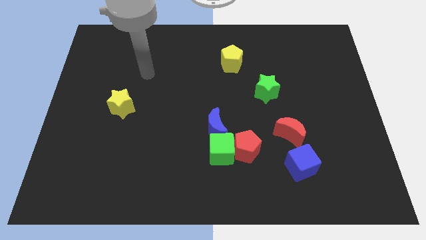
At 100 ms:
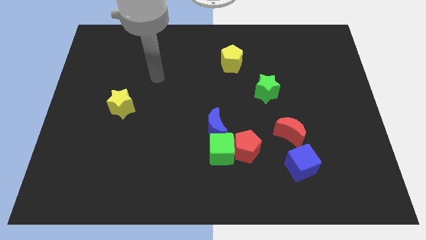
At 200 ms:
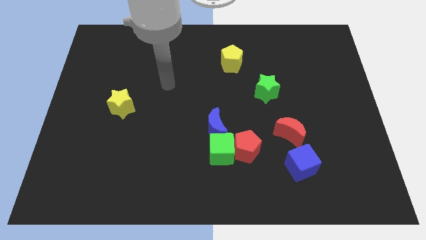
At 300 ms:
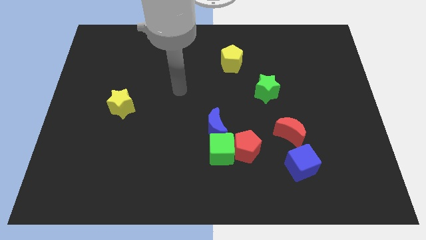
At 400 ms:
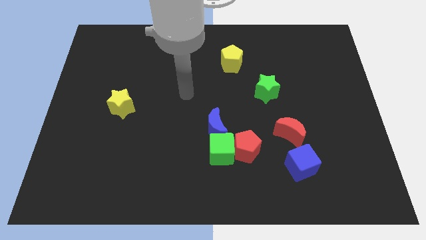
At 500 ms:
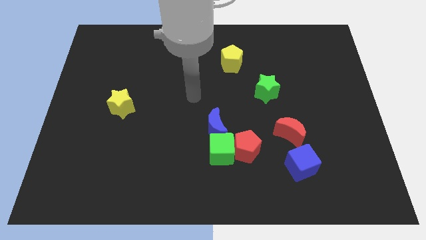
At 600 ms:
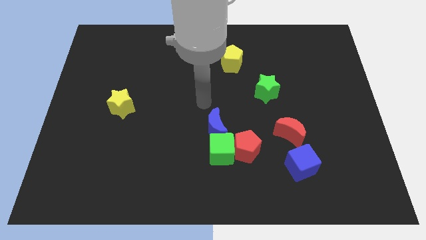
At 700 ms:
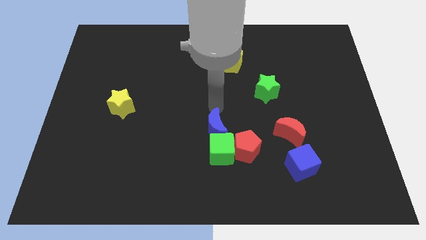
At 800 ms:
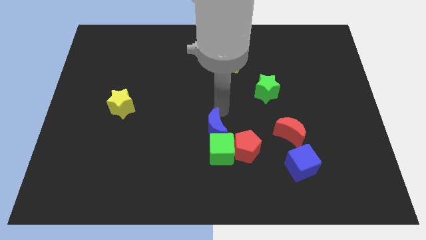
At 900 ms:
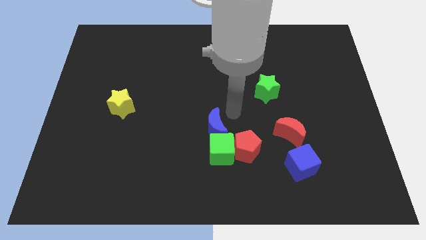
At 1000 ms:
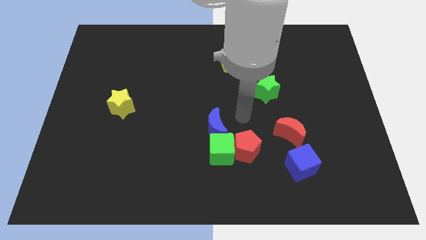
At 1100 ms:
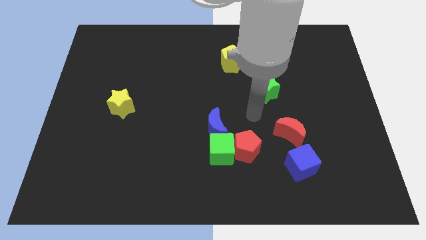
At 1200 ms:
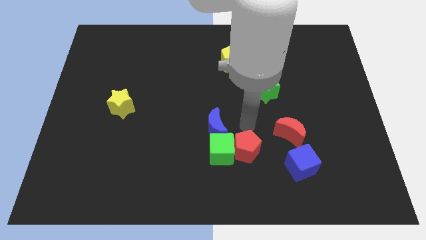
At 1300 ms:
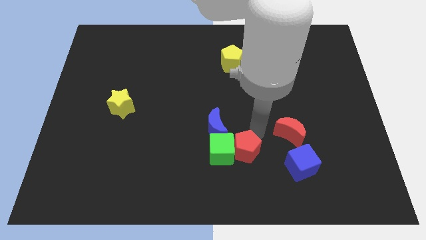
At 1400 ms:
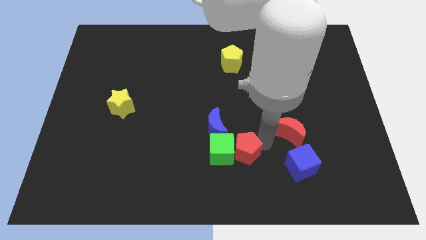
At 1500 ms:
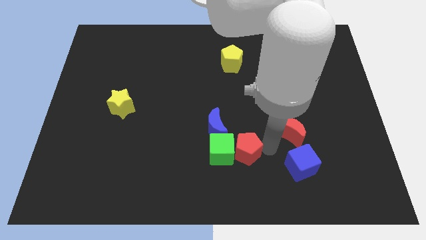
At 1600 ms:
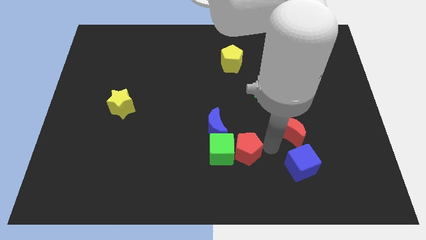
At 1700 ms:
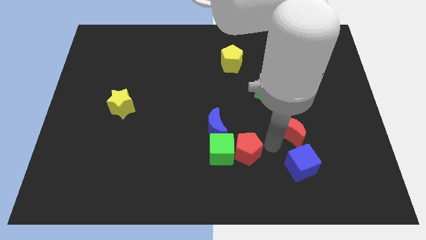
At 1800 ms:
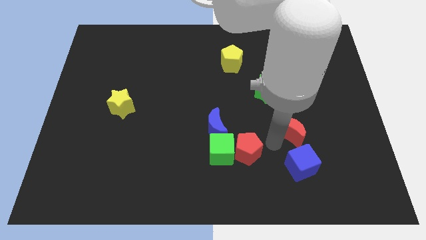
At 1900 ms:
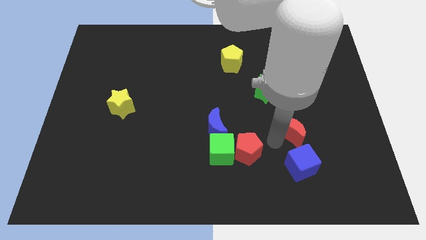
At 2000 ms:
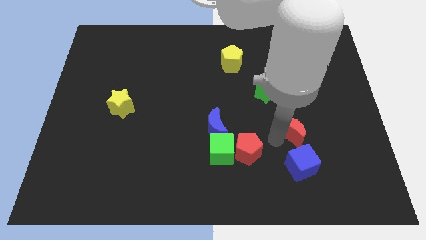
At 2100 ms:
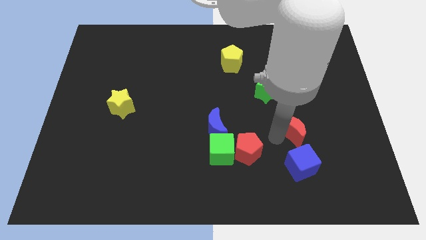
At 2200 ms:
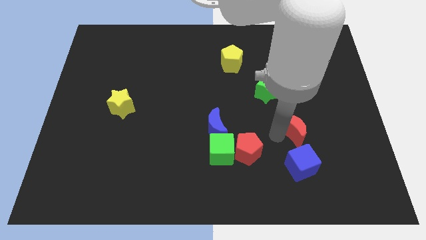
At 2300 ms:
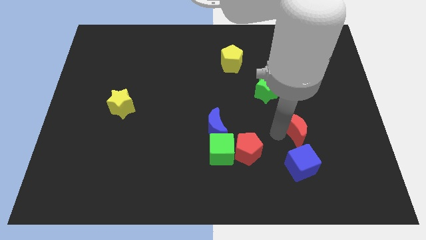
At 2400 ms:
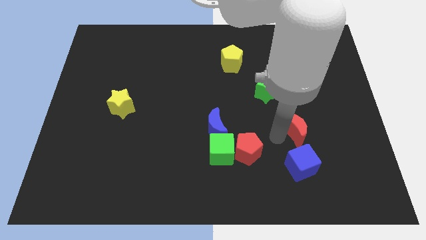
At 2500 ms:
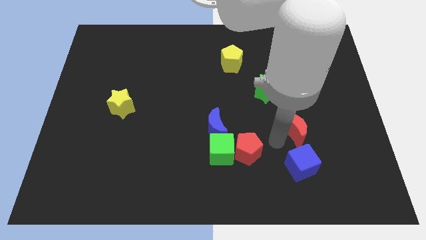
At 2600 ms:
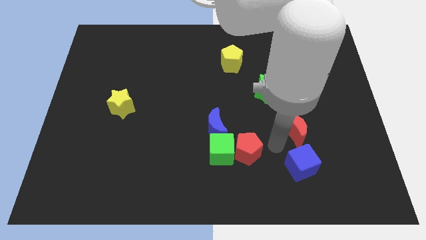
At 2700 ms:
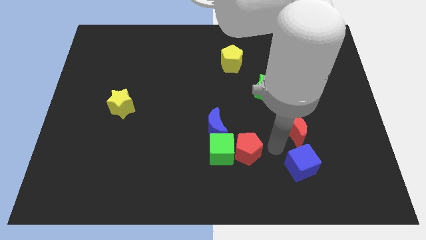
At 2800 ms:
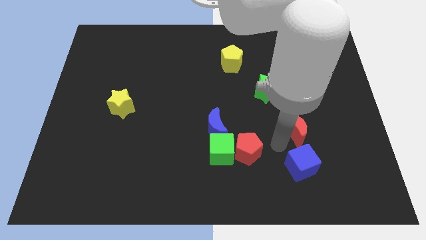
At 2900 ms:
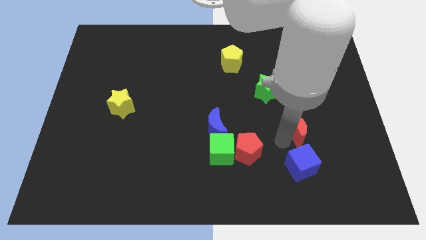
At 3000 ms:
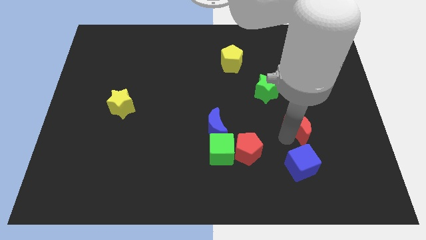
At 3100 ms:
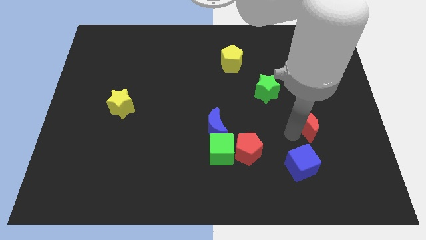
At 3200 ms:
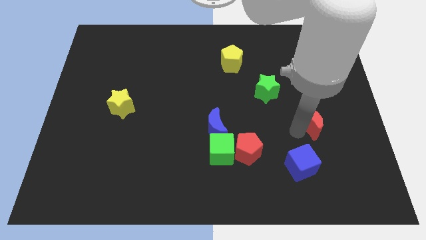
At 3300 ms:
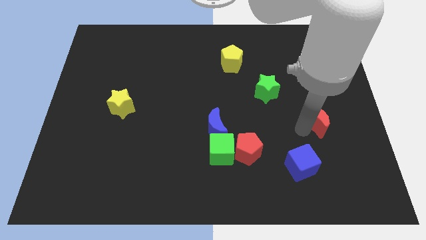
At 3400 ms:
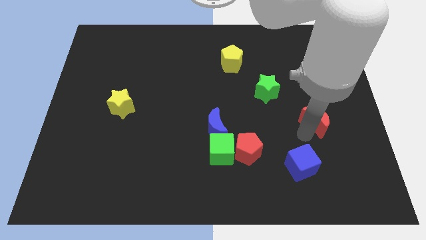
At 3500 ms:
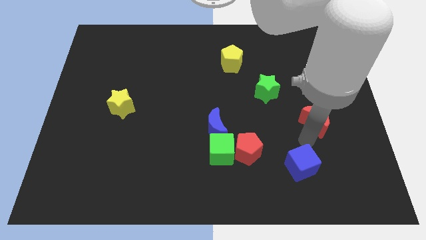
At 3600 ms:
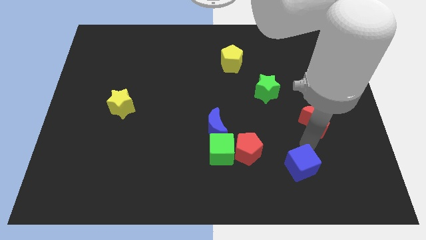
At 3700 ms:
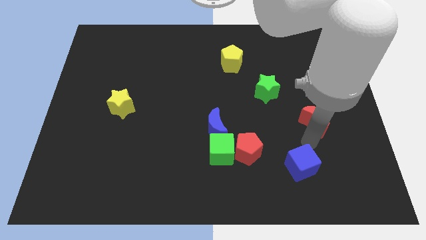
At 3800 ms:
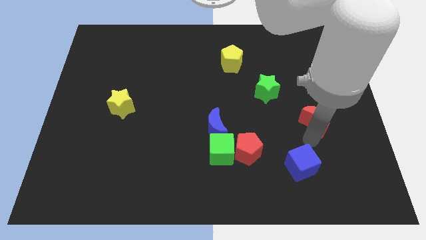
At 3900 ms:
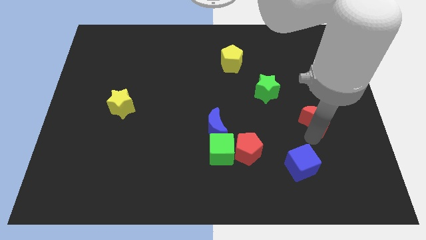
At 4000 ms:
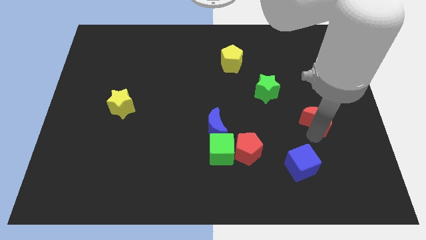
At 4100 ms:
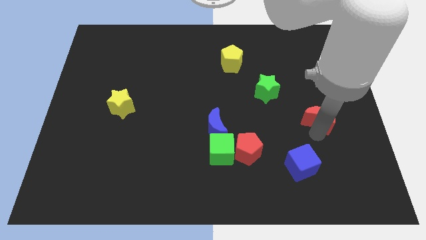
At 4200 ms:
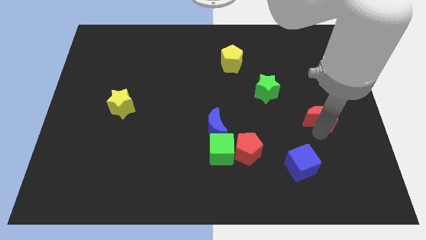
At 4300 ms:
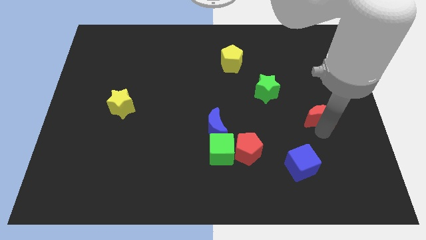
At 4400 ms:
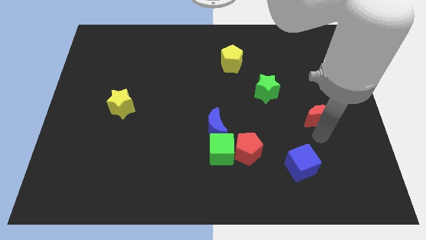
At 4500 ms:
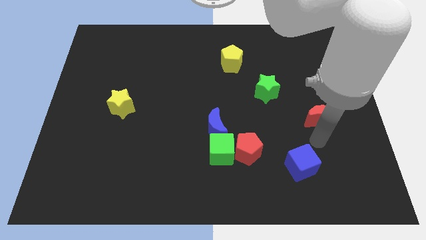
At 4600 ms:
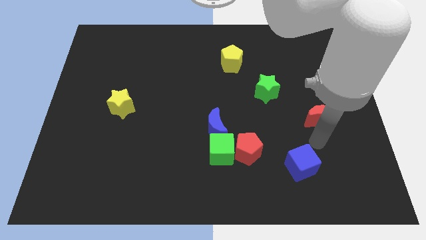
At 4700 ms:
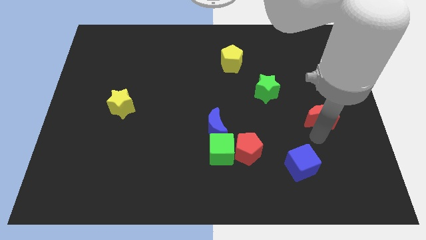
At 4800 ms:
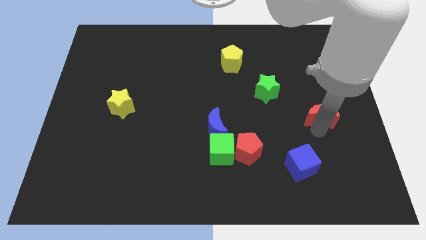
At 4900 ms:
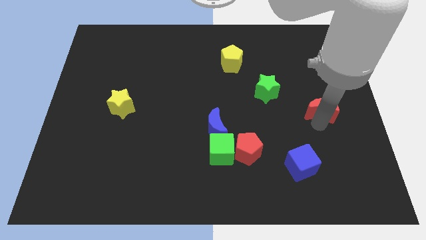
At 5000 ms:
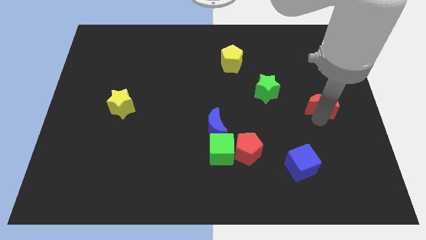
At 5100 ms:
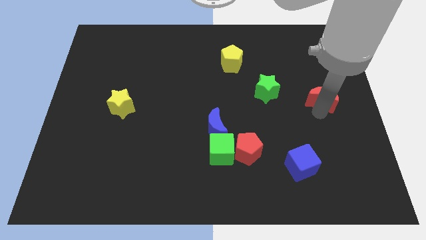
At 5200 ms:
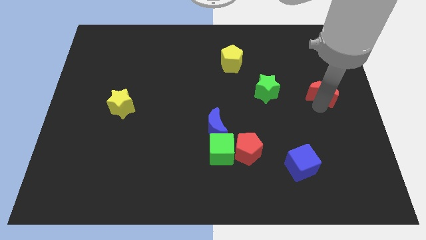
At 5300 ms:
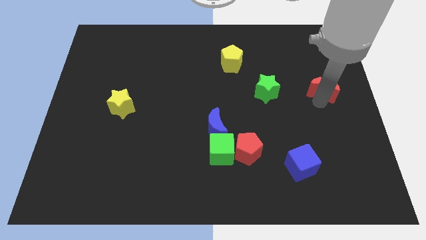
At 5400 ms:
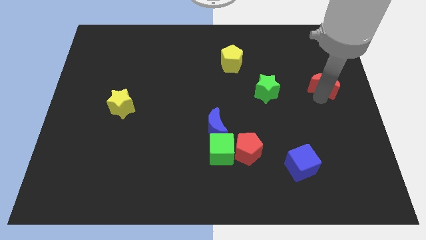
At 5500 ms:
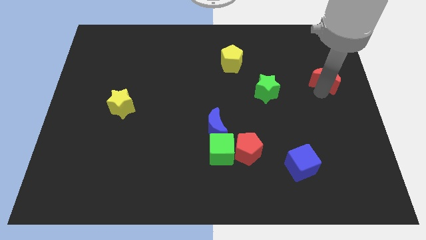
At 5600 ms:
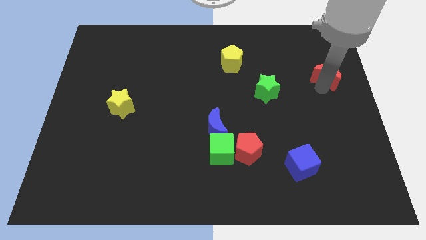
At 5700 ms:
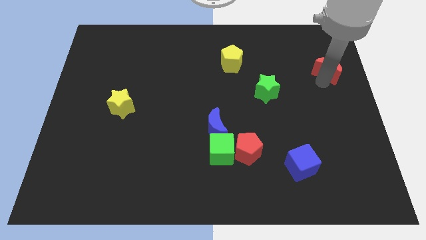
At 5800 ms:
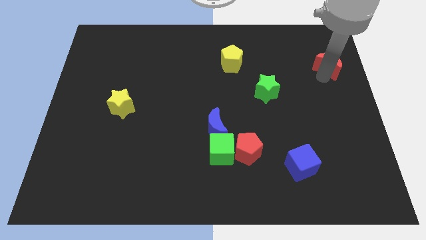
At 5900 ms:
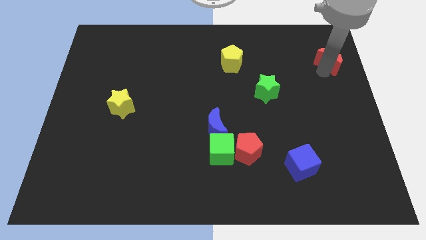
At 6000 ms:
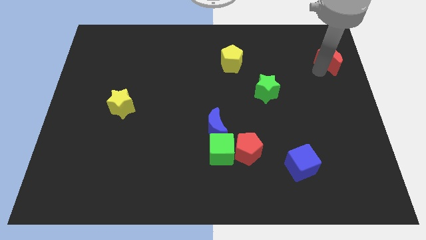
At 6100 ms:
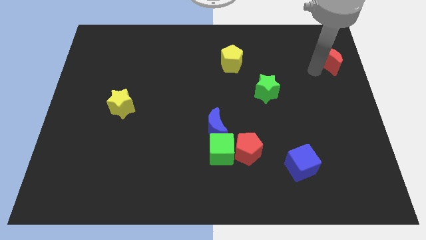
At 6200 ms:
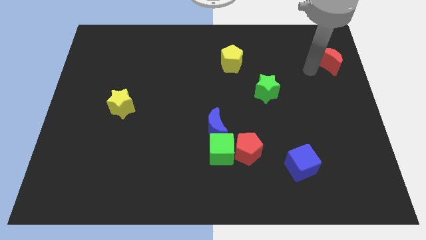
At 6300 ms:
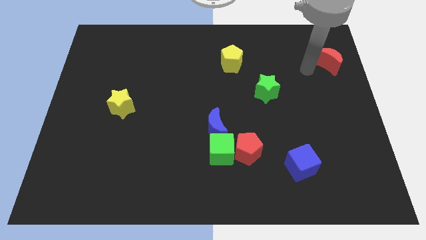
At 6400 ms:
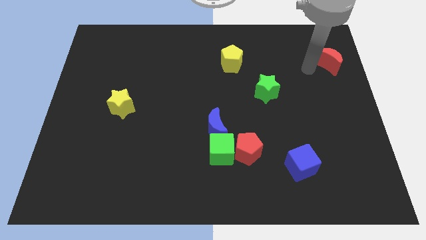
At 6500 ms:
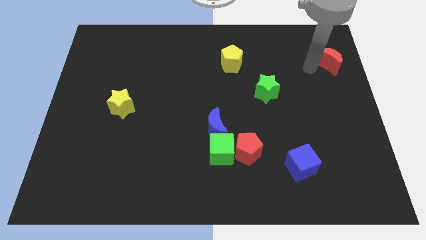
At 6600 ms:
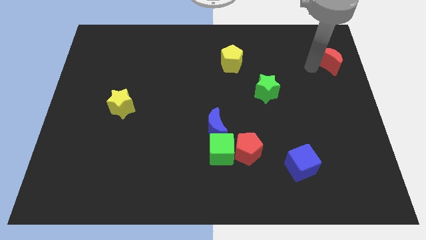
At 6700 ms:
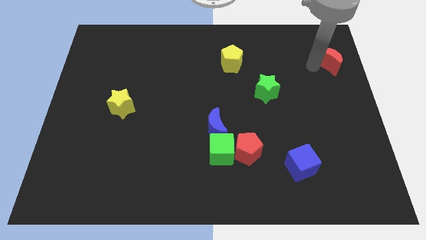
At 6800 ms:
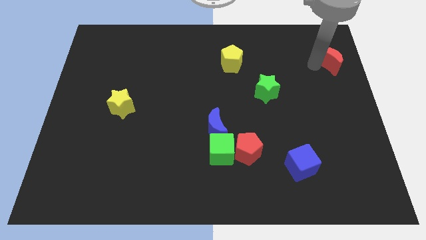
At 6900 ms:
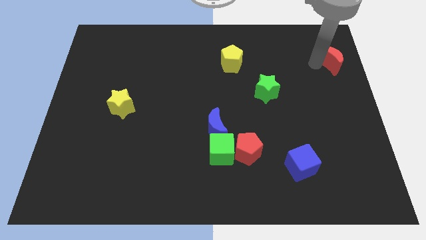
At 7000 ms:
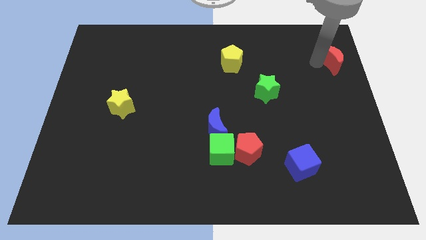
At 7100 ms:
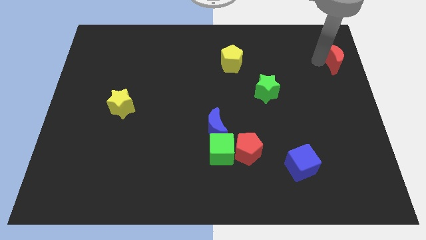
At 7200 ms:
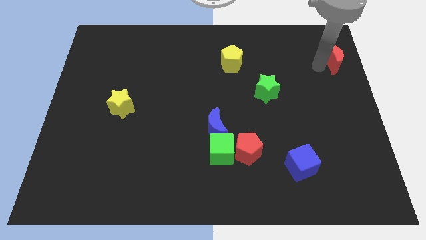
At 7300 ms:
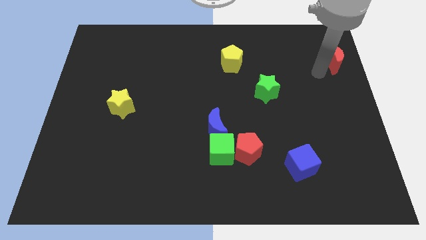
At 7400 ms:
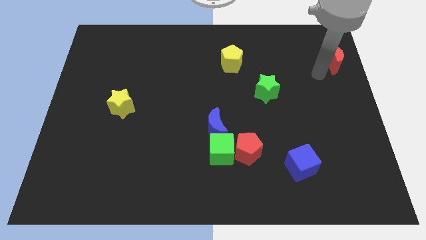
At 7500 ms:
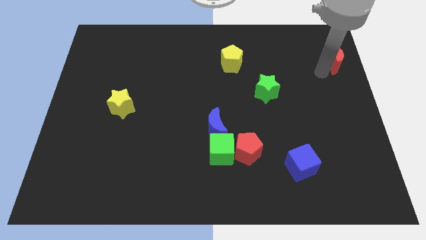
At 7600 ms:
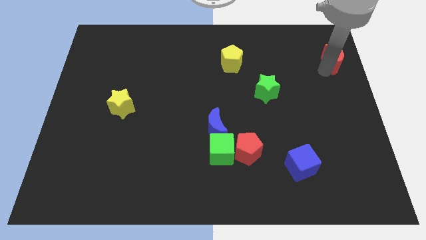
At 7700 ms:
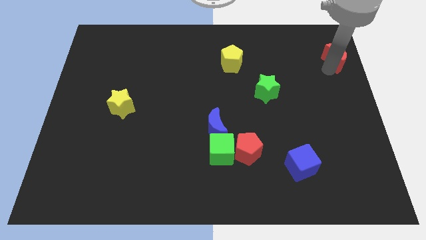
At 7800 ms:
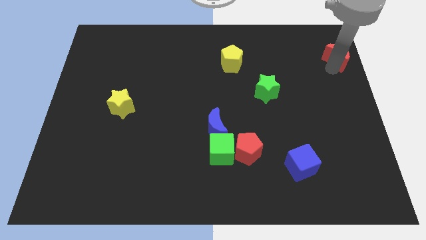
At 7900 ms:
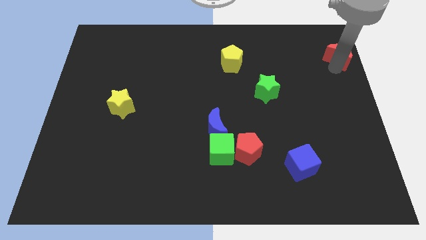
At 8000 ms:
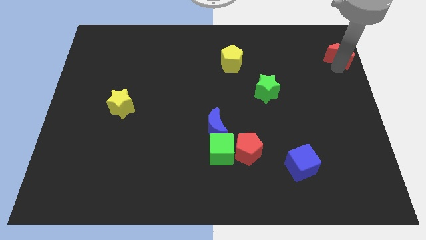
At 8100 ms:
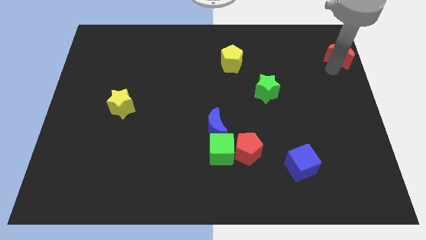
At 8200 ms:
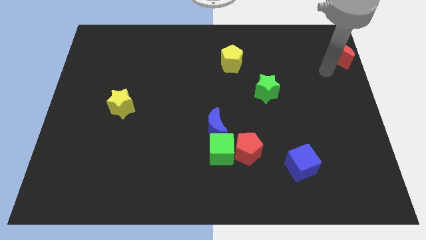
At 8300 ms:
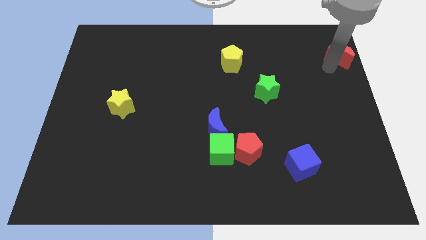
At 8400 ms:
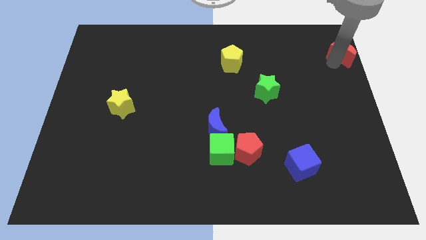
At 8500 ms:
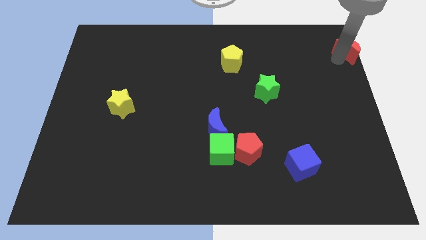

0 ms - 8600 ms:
push the red moon to the top right
